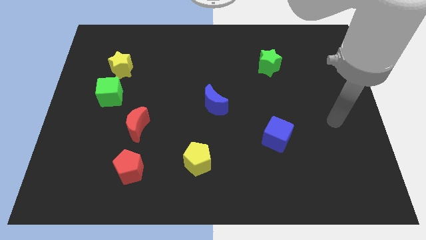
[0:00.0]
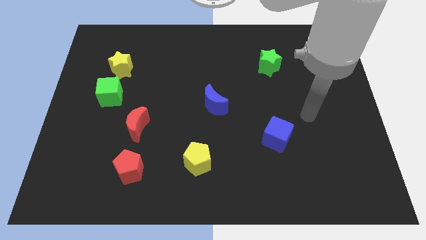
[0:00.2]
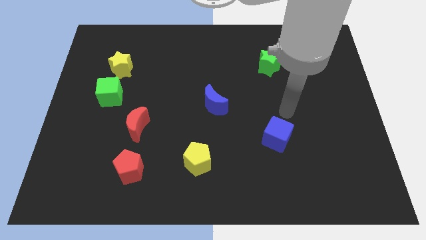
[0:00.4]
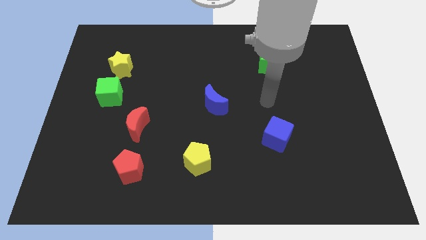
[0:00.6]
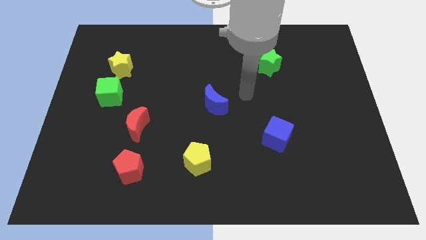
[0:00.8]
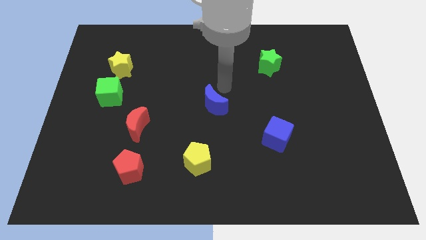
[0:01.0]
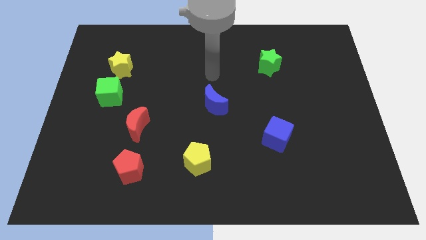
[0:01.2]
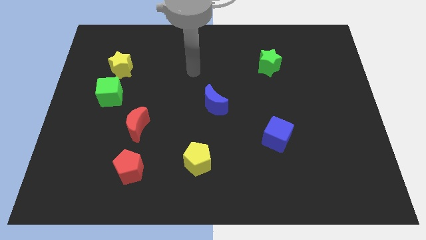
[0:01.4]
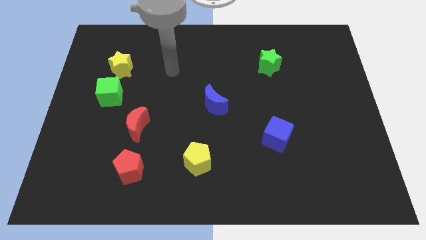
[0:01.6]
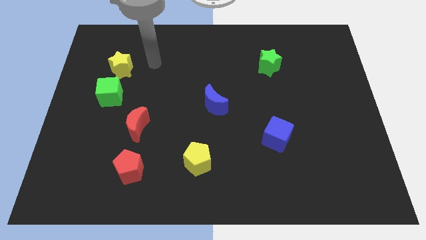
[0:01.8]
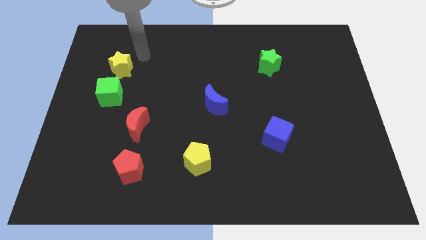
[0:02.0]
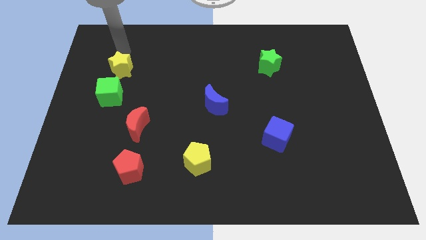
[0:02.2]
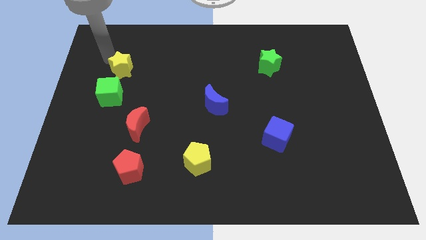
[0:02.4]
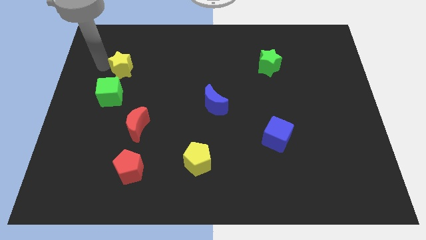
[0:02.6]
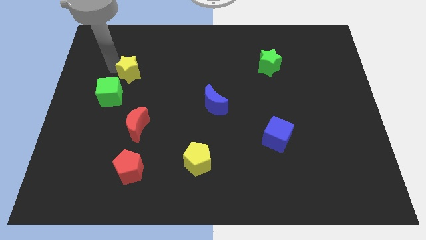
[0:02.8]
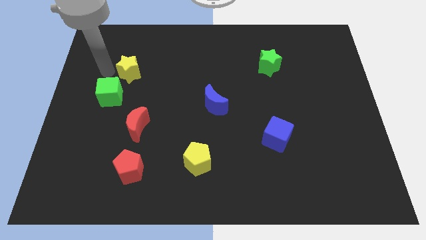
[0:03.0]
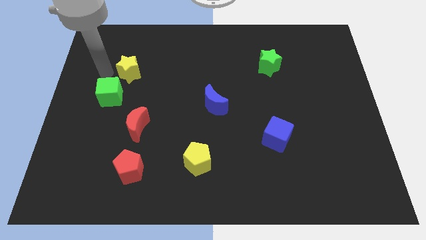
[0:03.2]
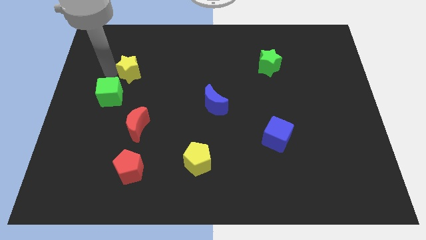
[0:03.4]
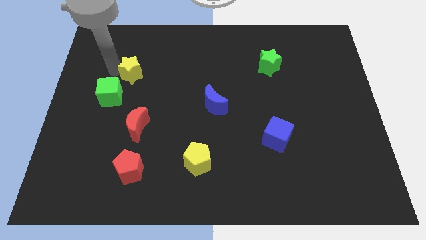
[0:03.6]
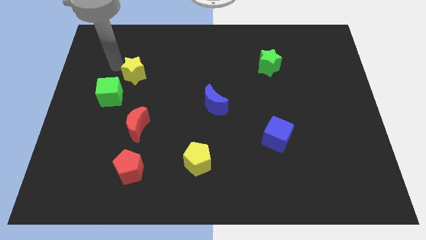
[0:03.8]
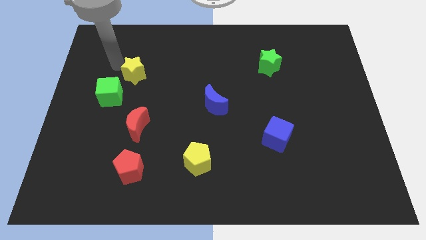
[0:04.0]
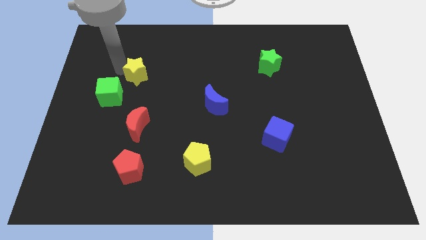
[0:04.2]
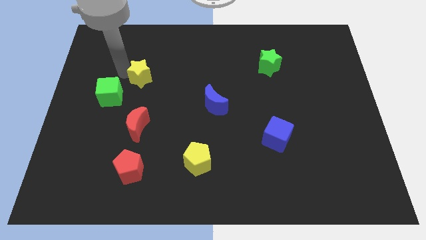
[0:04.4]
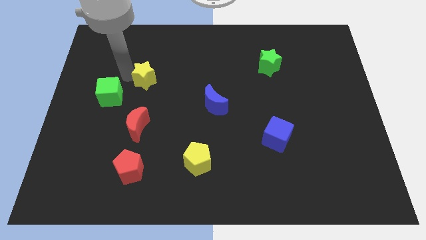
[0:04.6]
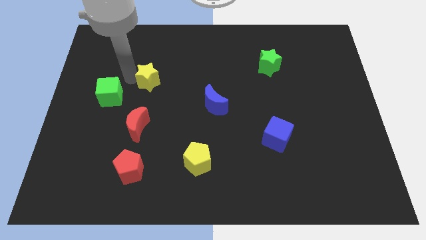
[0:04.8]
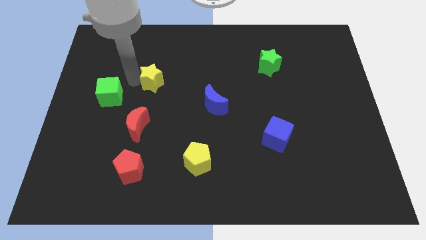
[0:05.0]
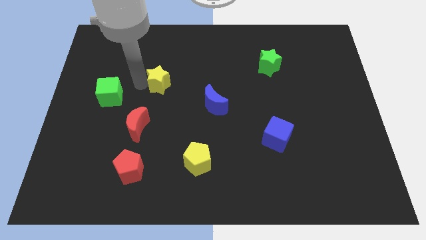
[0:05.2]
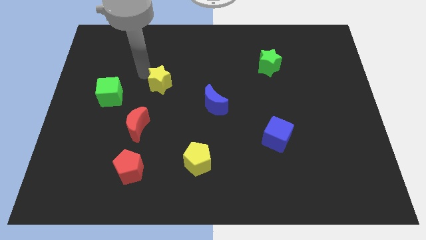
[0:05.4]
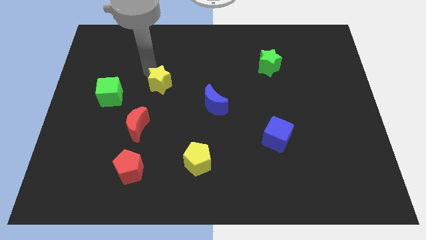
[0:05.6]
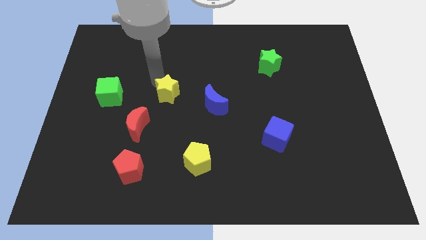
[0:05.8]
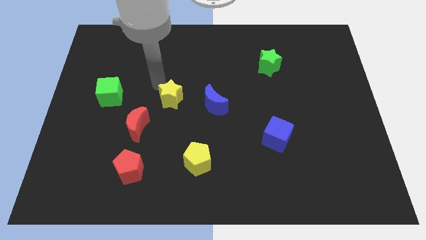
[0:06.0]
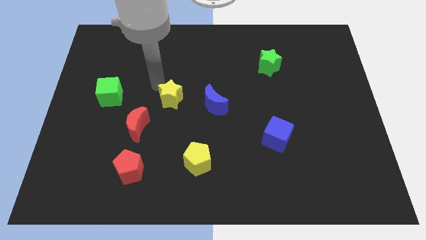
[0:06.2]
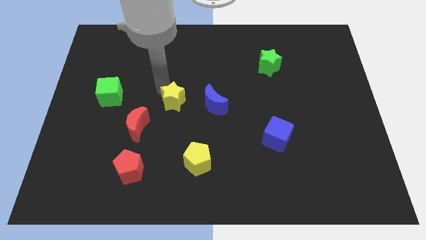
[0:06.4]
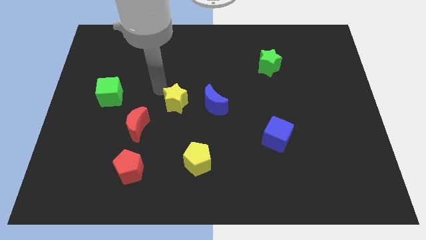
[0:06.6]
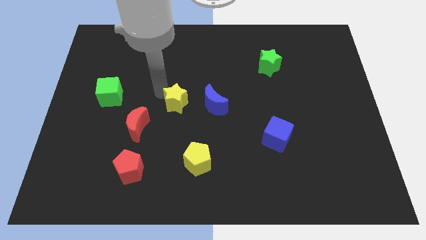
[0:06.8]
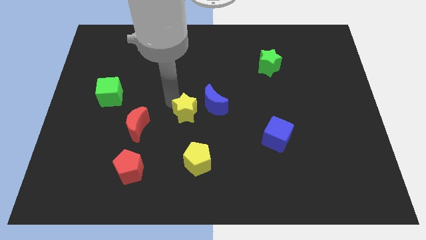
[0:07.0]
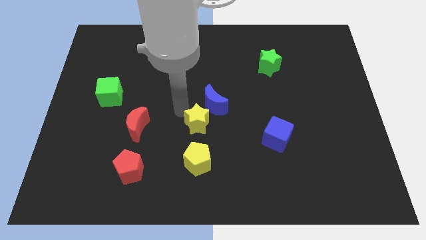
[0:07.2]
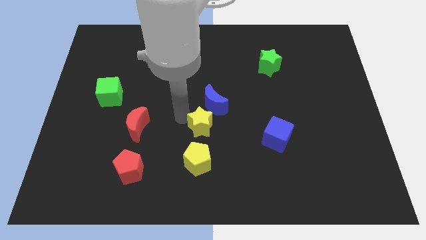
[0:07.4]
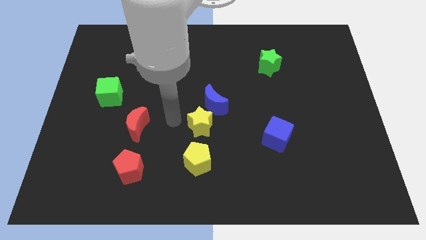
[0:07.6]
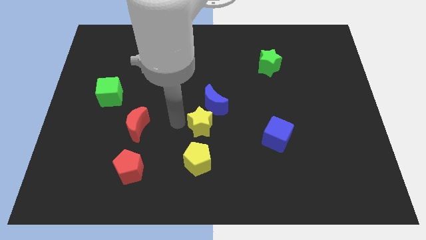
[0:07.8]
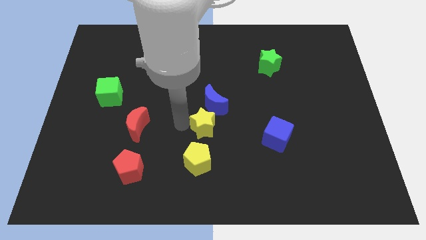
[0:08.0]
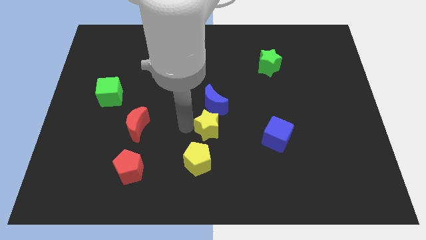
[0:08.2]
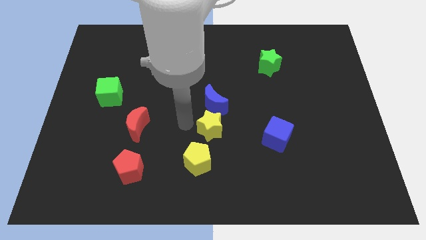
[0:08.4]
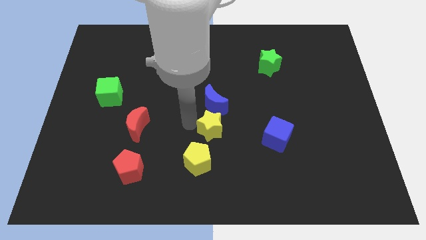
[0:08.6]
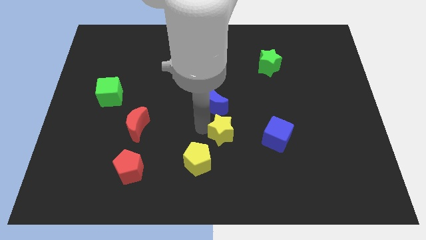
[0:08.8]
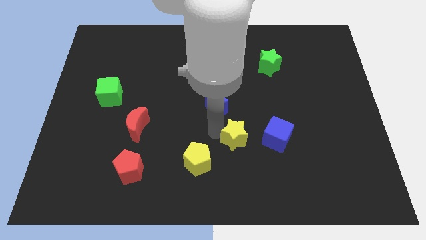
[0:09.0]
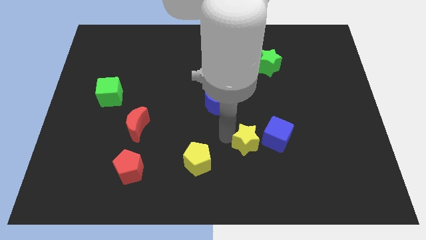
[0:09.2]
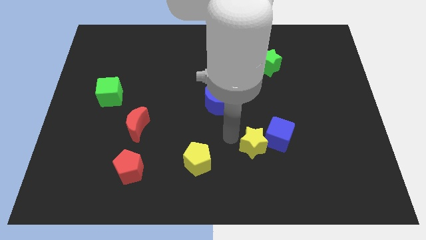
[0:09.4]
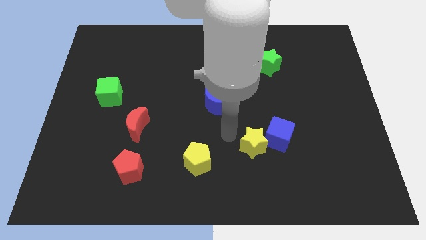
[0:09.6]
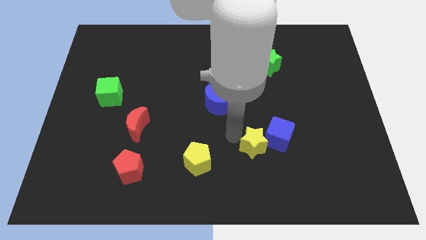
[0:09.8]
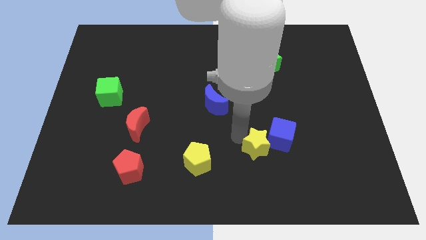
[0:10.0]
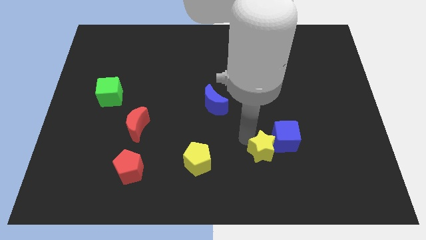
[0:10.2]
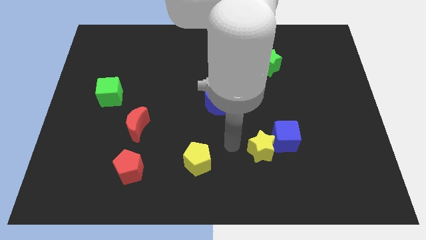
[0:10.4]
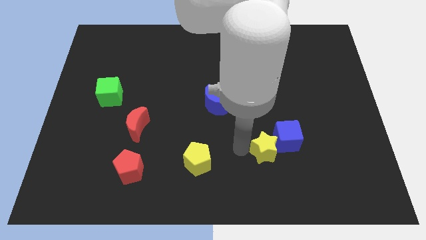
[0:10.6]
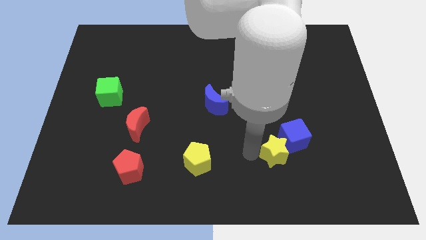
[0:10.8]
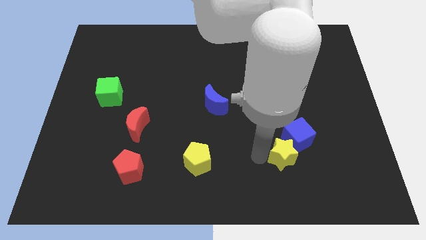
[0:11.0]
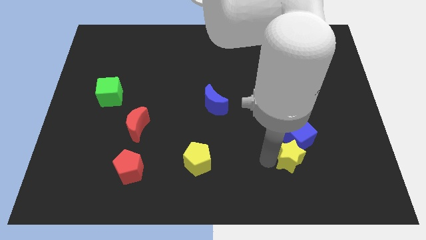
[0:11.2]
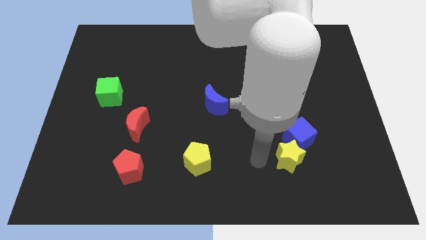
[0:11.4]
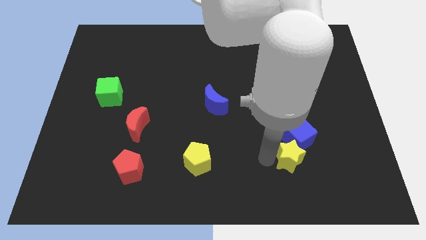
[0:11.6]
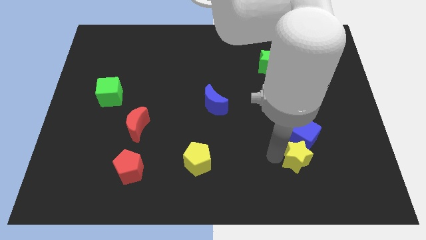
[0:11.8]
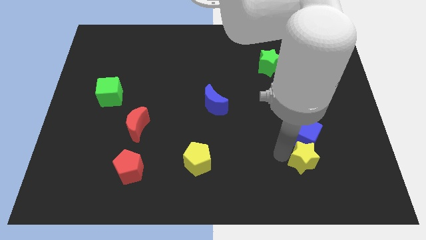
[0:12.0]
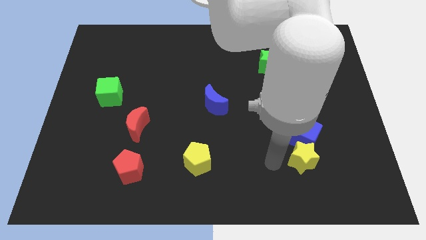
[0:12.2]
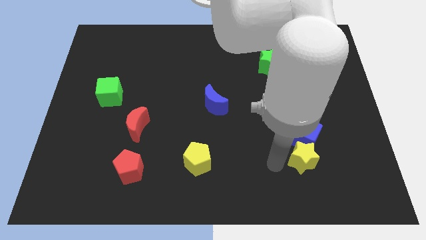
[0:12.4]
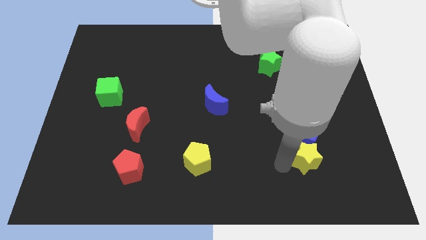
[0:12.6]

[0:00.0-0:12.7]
push the yellow star to the bottom right side of the blue cube

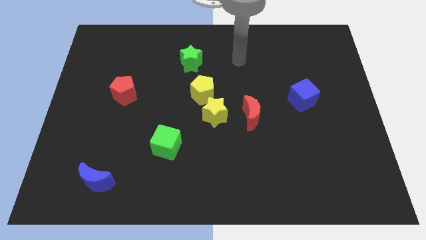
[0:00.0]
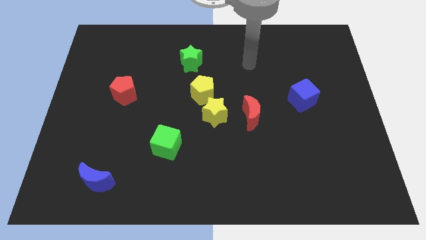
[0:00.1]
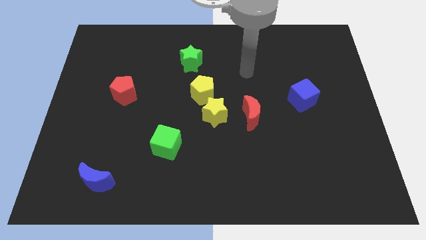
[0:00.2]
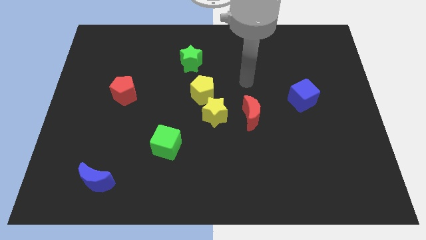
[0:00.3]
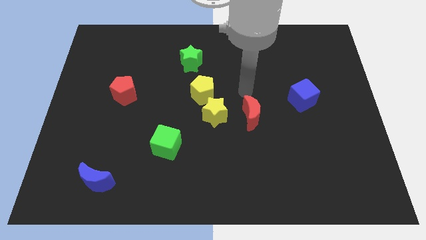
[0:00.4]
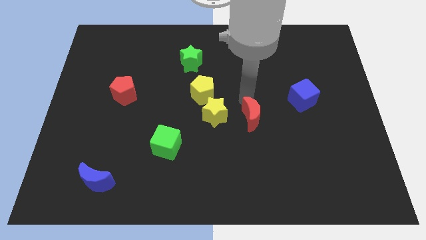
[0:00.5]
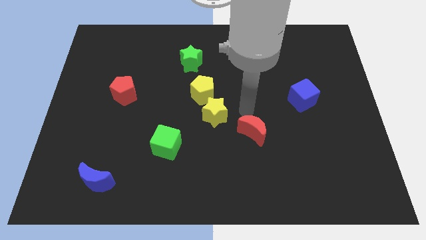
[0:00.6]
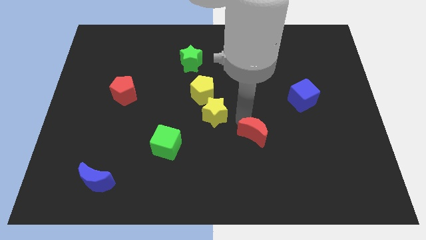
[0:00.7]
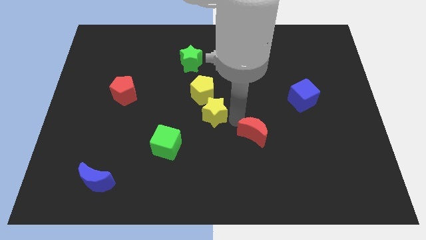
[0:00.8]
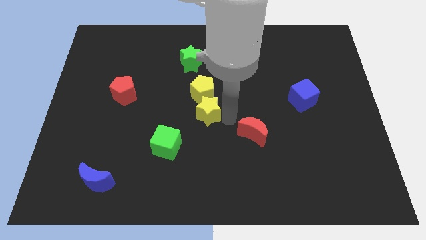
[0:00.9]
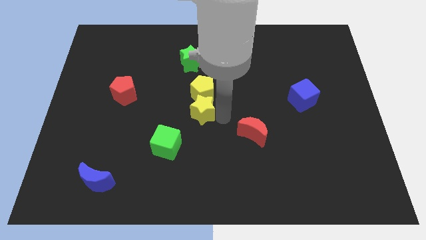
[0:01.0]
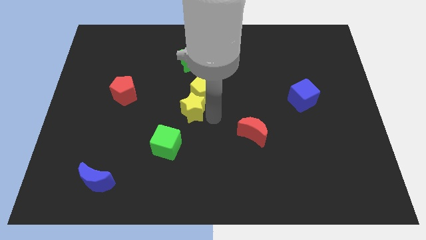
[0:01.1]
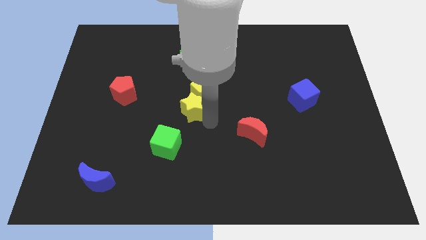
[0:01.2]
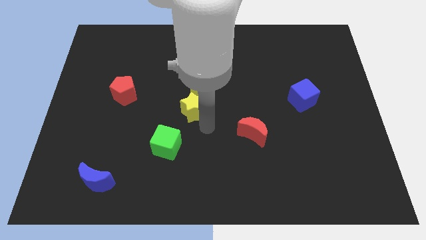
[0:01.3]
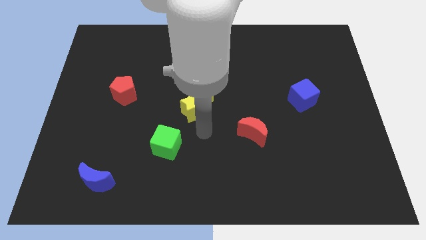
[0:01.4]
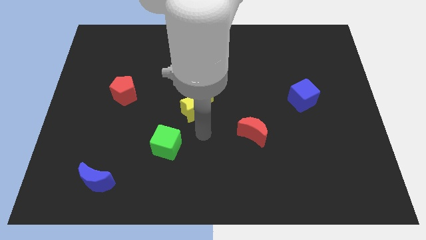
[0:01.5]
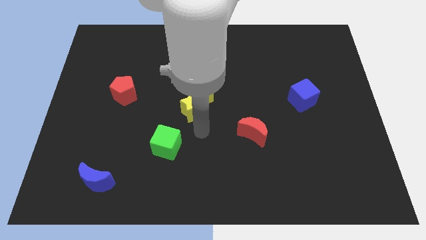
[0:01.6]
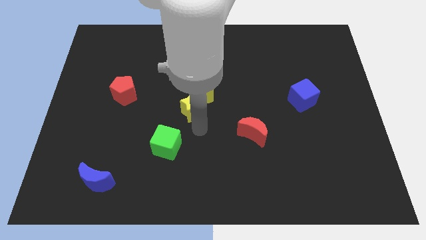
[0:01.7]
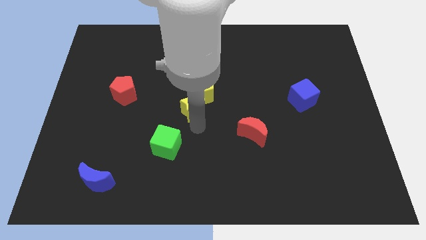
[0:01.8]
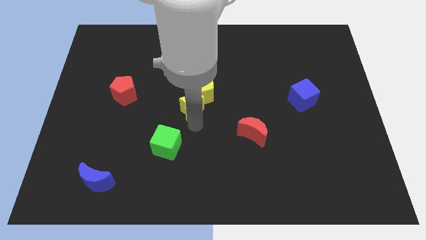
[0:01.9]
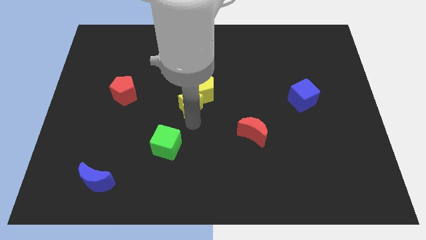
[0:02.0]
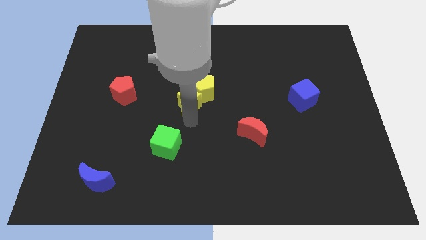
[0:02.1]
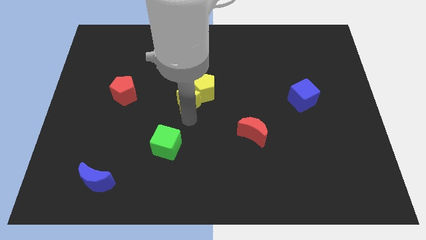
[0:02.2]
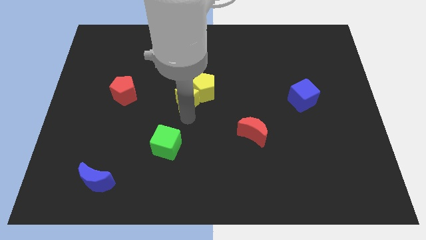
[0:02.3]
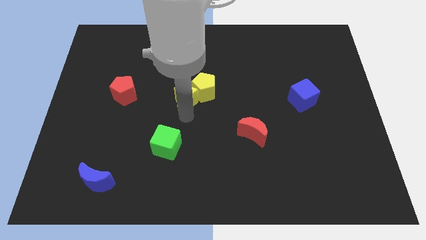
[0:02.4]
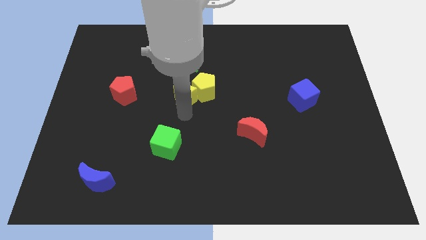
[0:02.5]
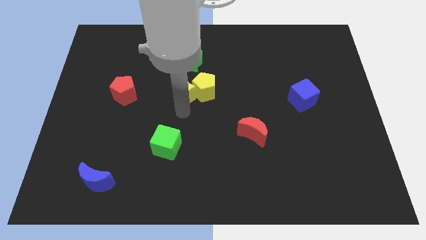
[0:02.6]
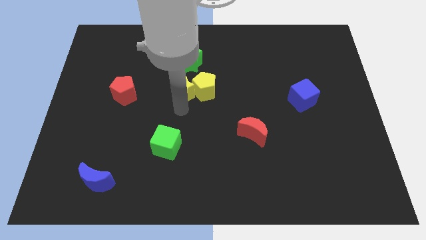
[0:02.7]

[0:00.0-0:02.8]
put the yellow star to the top left side of the yellow pentagon
